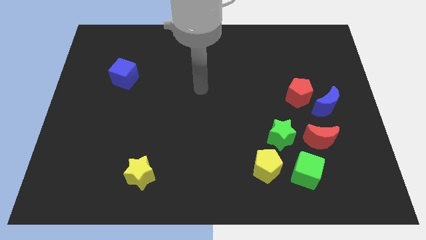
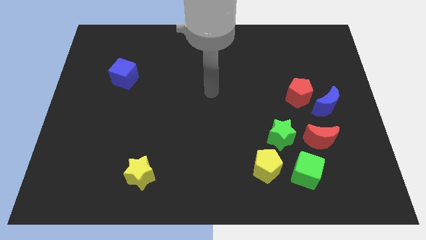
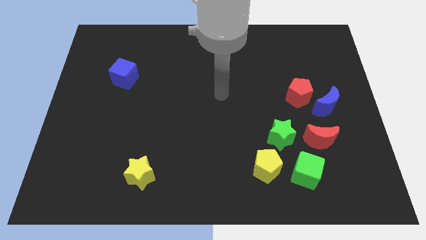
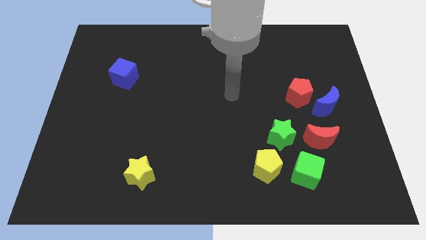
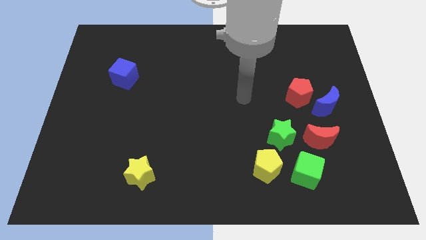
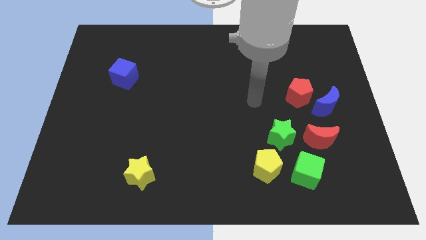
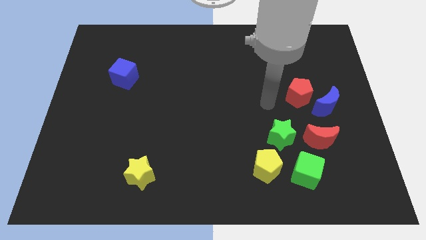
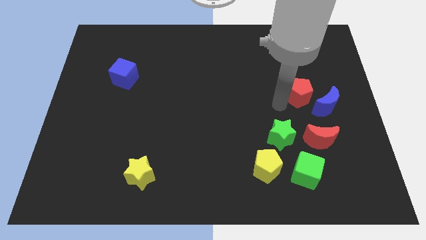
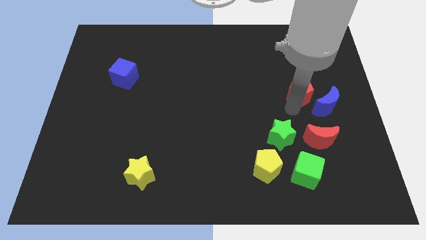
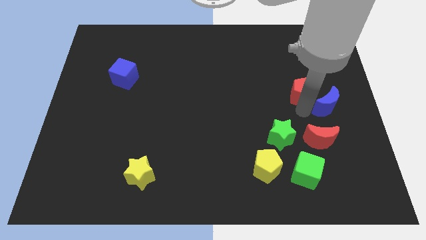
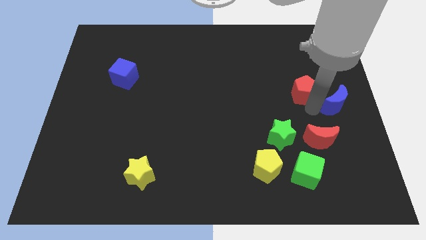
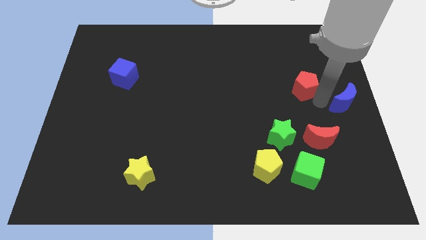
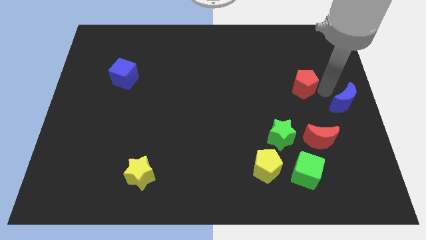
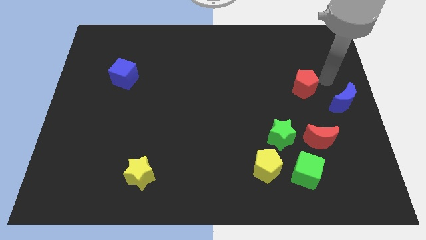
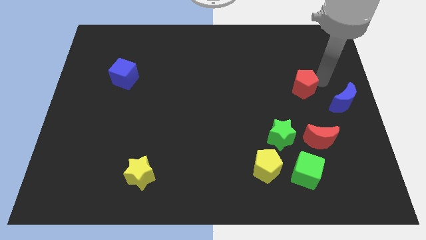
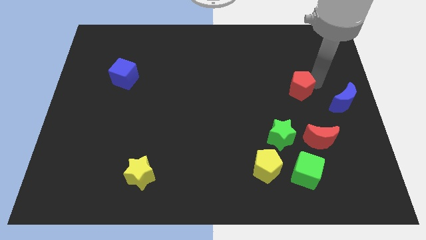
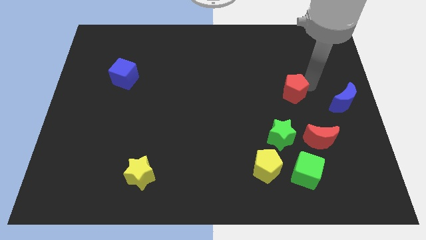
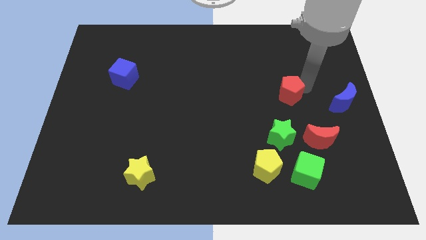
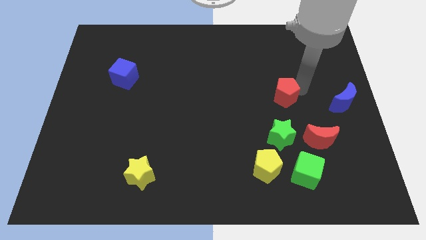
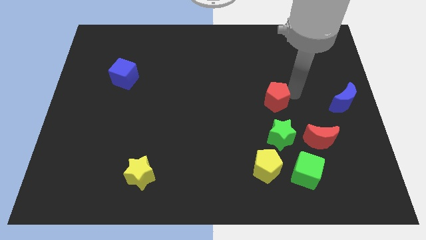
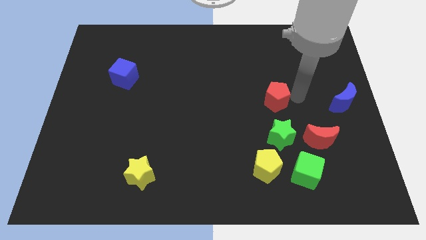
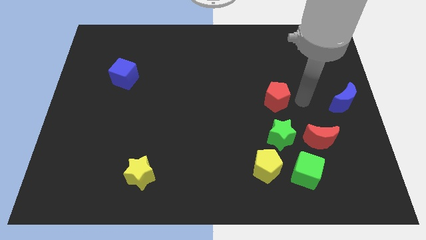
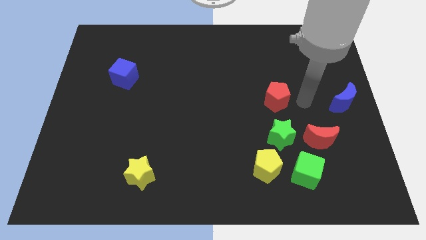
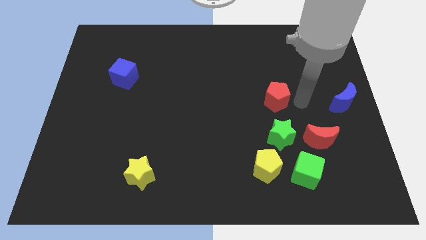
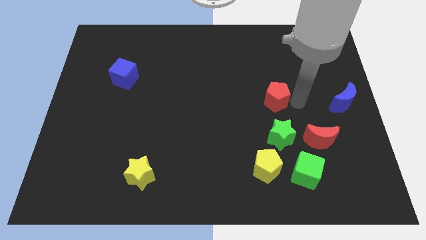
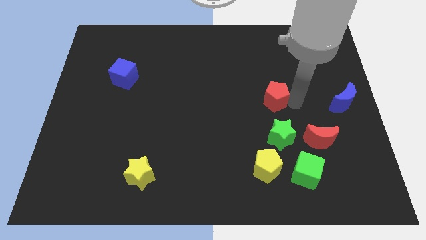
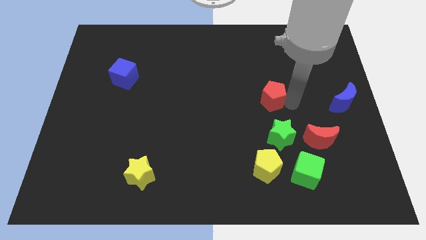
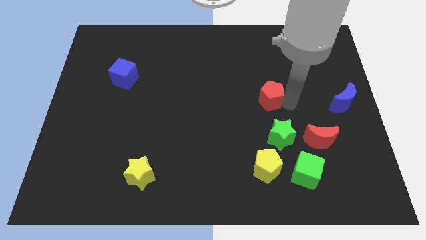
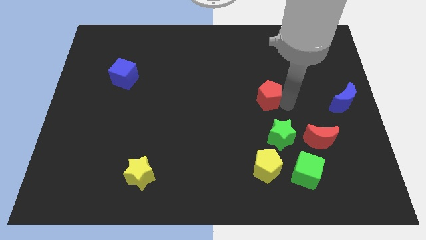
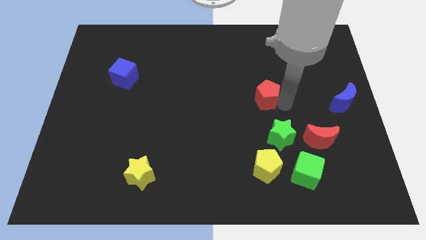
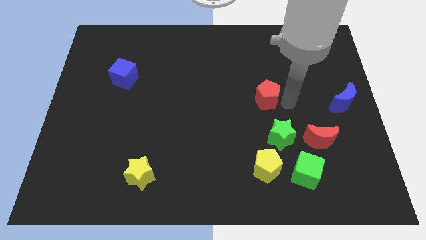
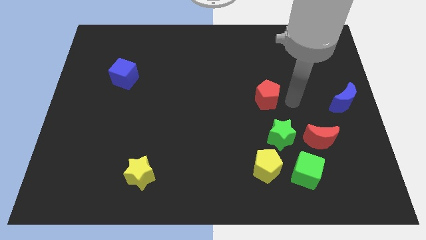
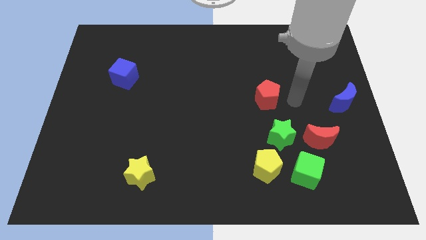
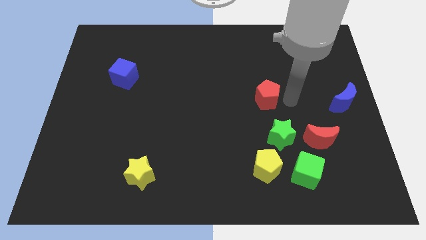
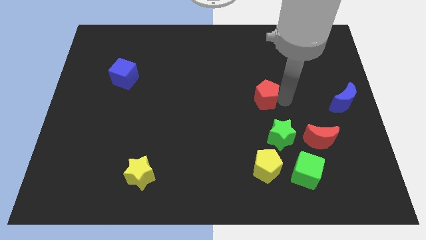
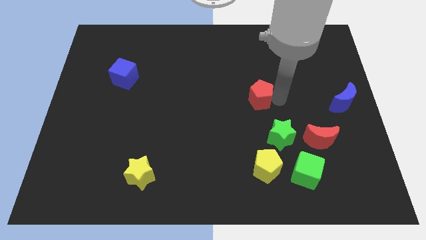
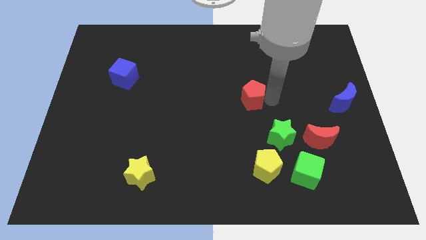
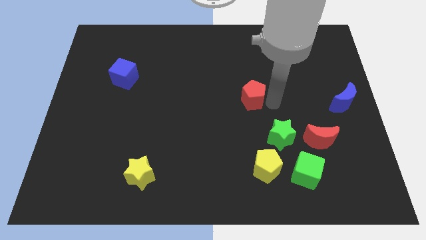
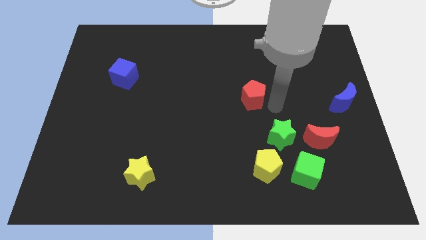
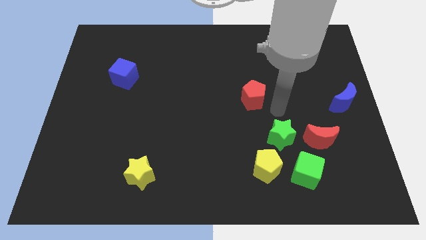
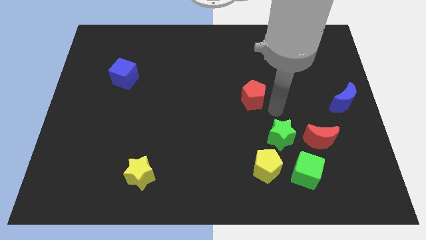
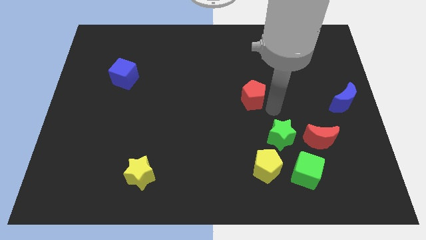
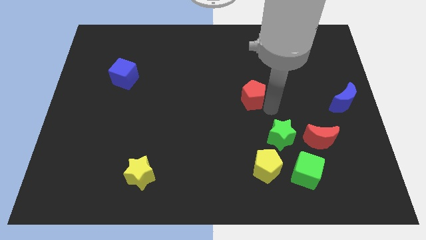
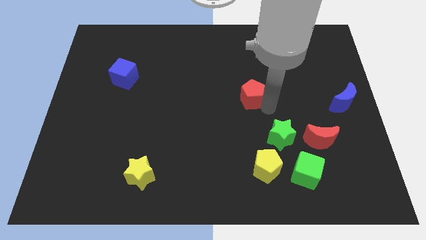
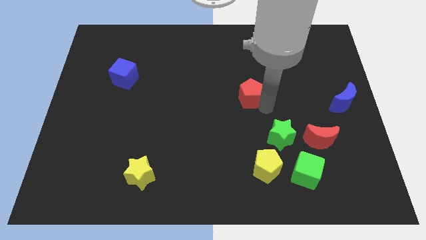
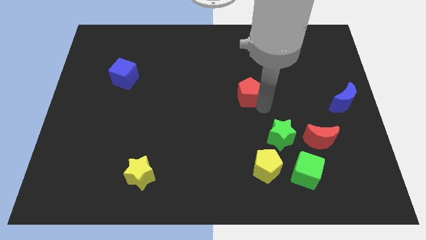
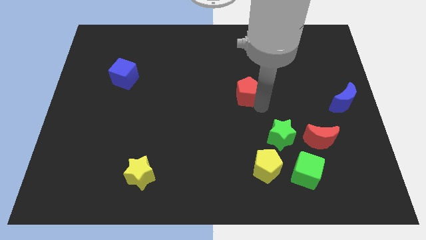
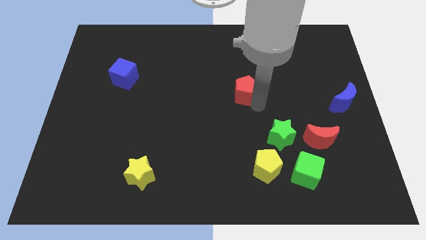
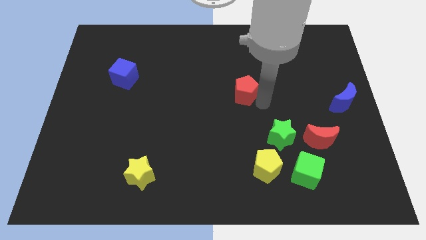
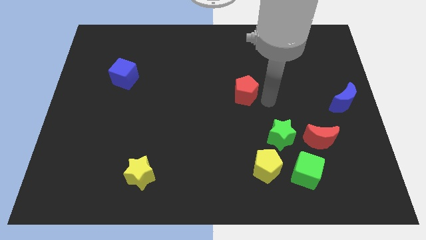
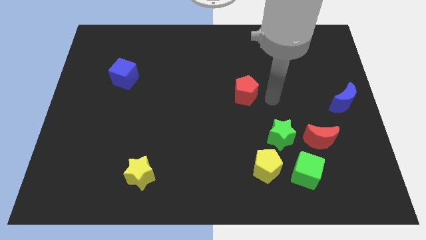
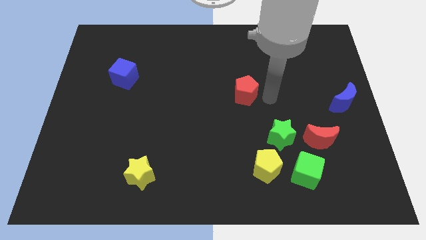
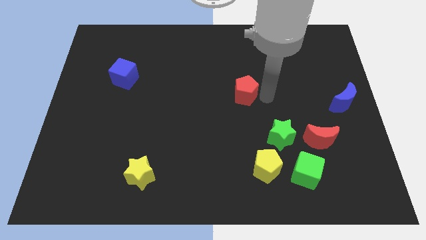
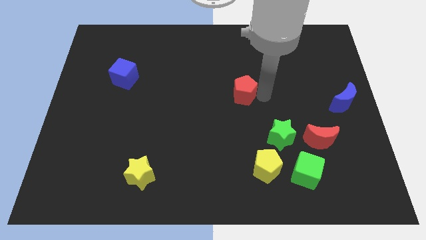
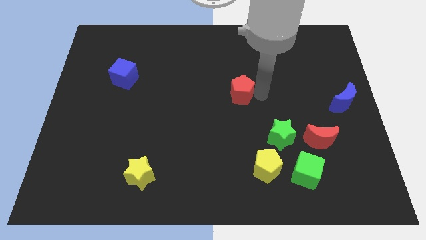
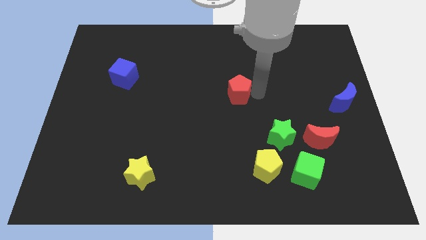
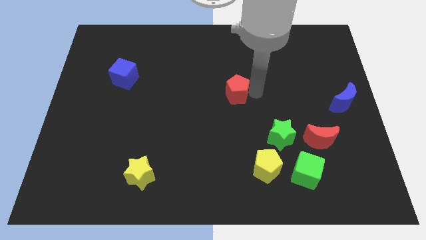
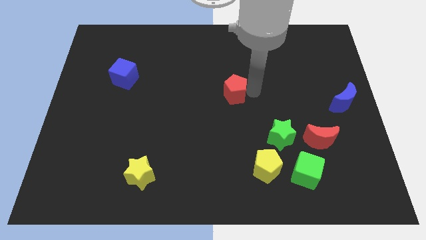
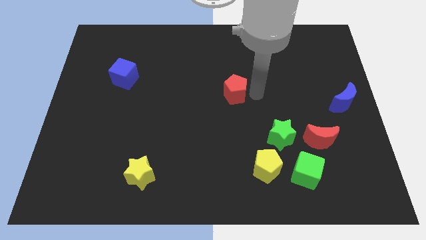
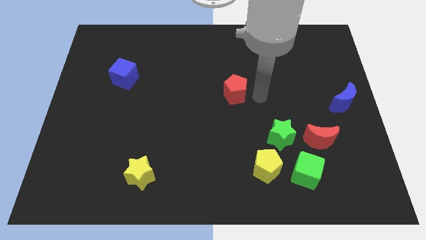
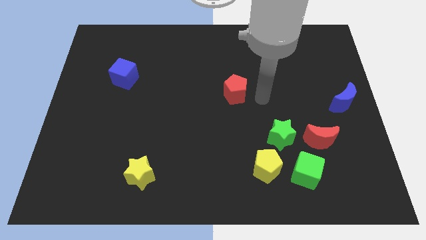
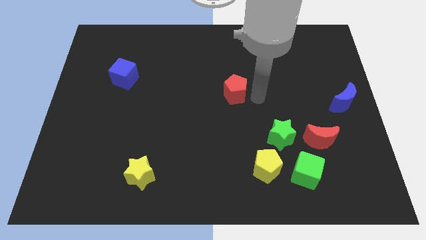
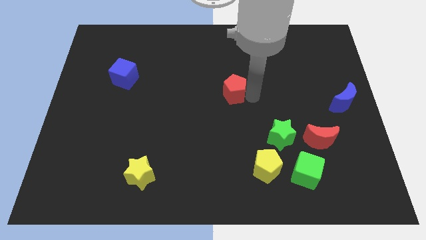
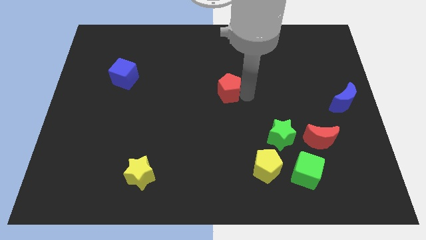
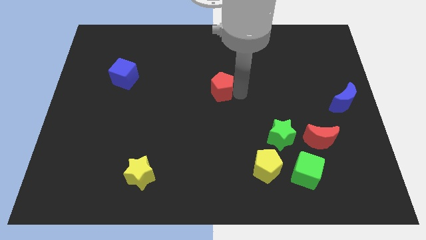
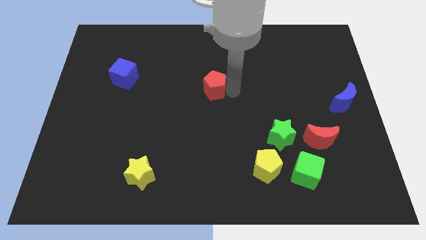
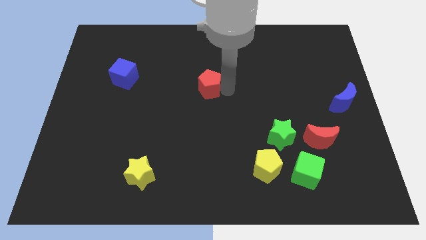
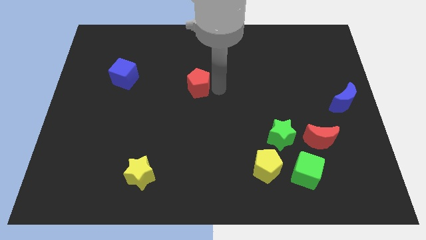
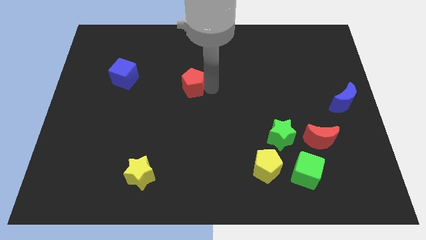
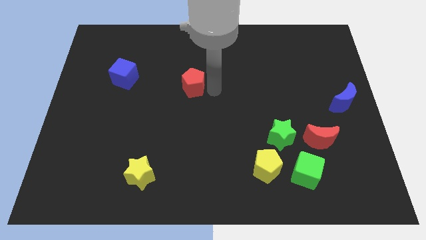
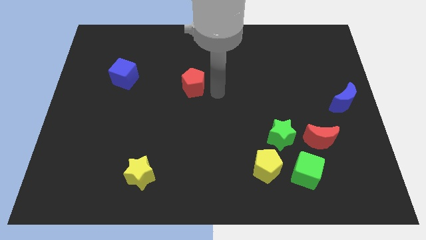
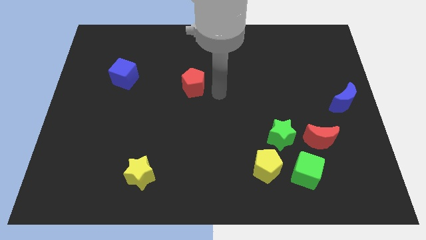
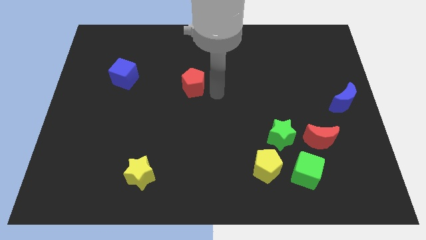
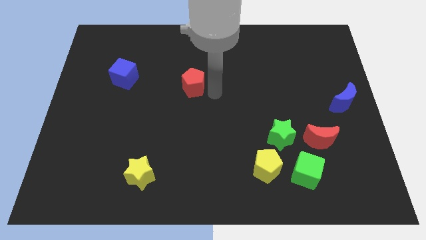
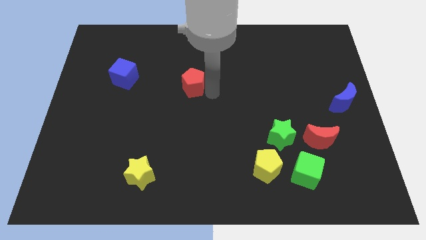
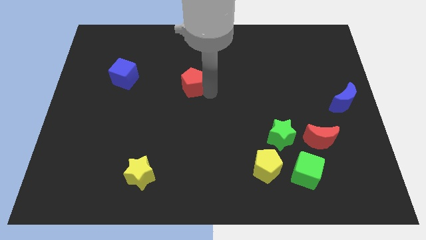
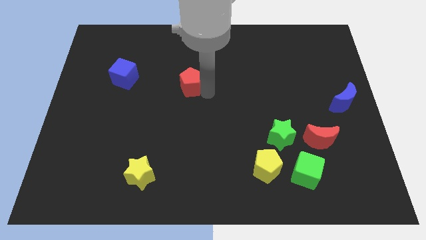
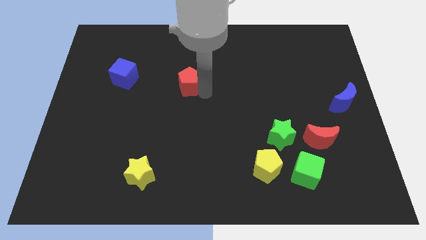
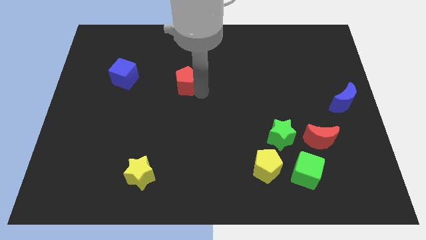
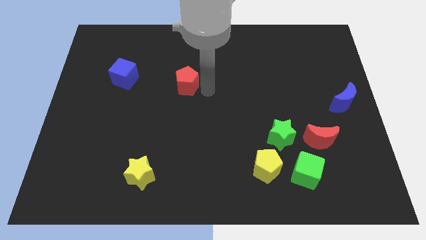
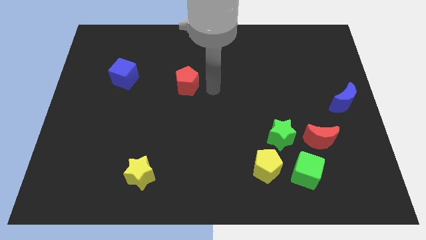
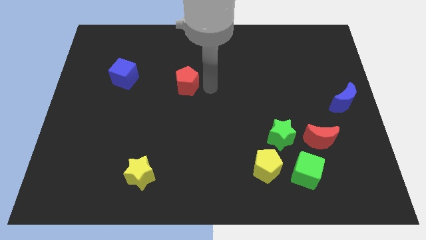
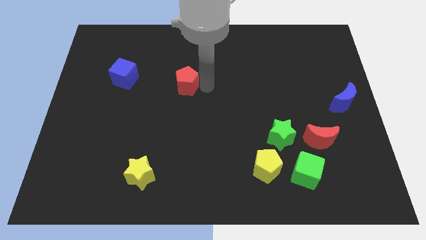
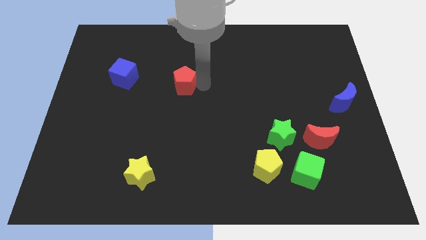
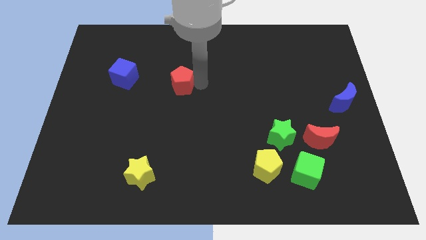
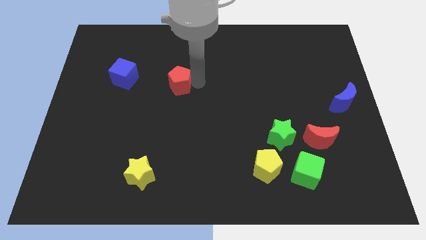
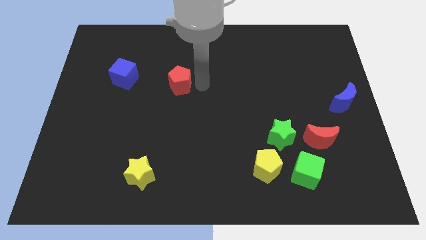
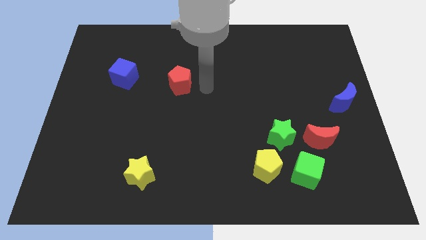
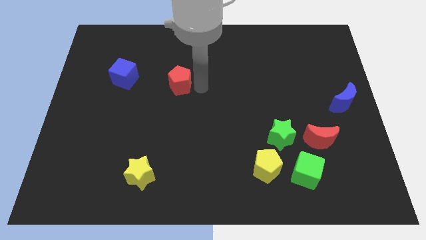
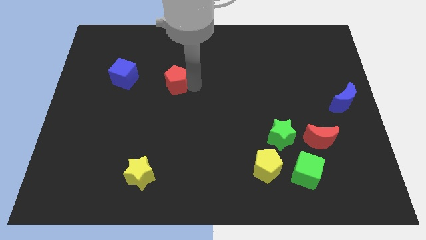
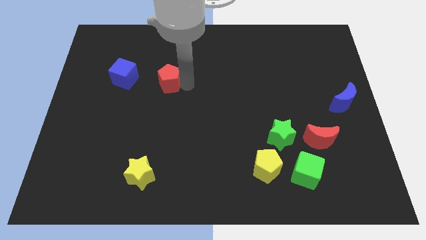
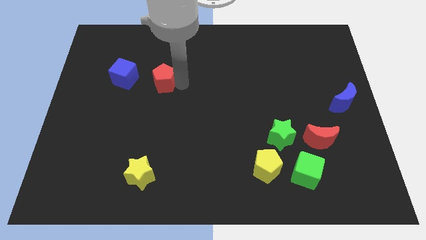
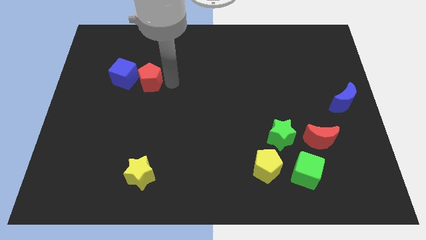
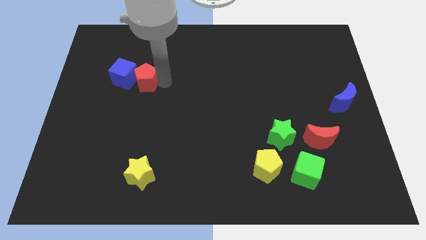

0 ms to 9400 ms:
slide the red pentagon towards the blue cube
